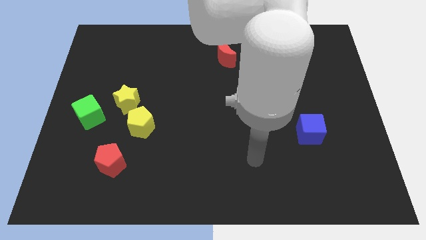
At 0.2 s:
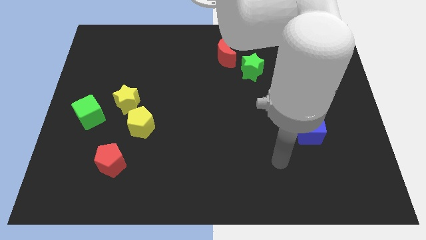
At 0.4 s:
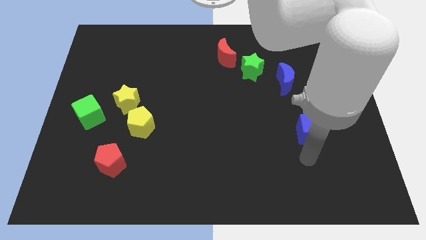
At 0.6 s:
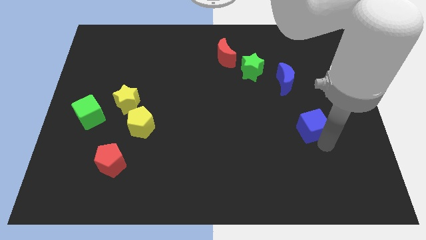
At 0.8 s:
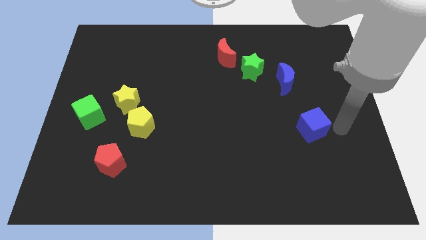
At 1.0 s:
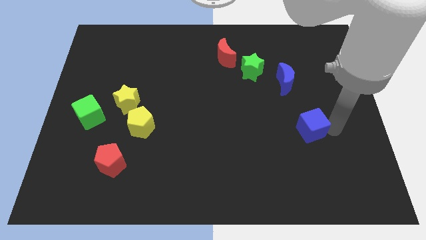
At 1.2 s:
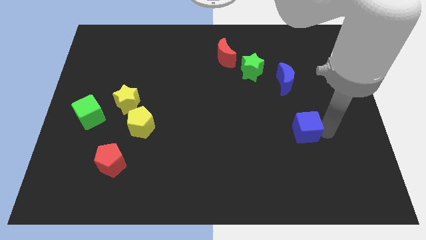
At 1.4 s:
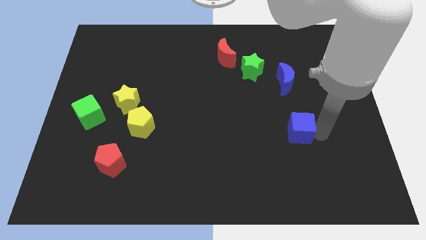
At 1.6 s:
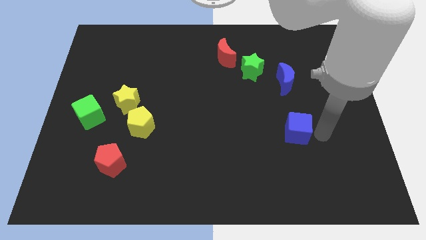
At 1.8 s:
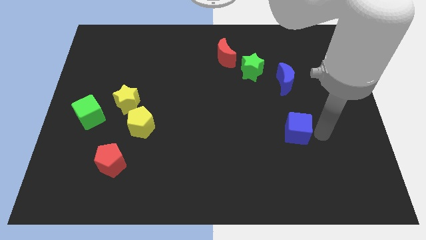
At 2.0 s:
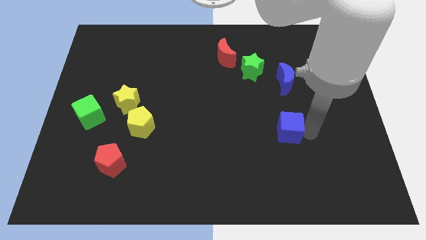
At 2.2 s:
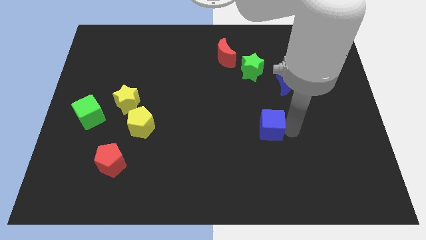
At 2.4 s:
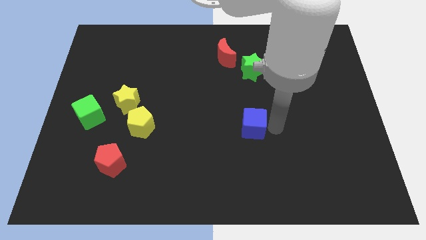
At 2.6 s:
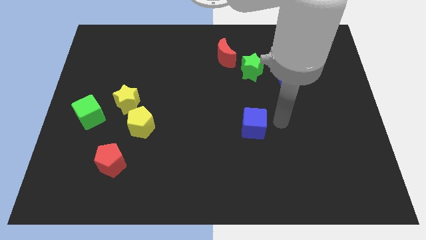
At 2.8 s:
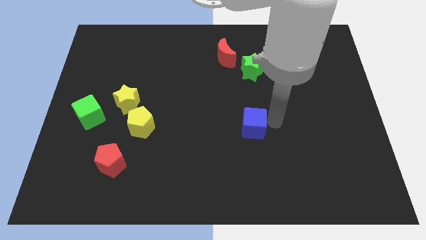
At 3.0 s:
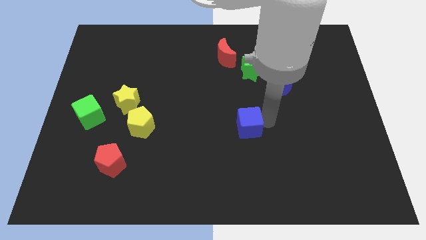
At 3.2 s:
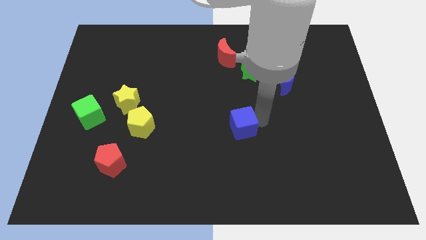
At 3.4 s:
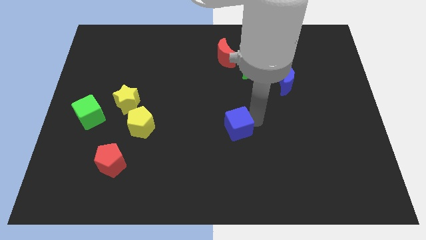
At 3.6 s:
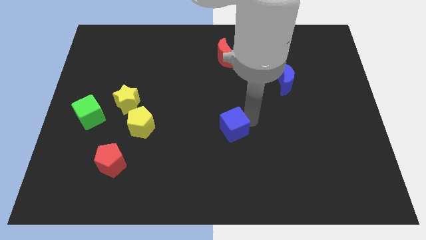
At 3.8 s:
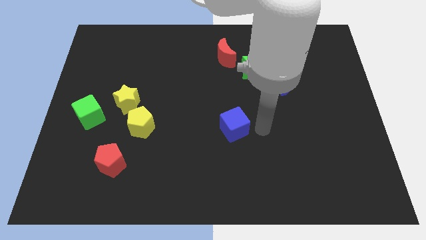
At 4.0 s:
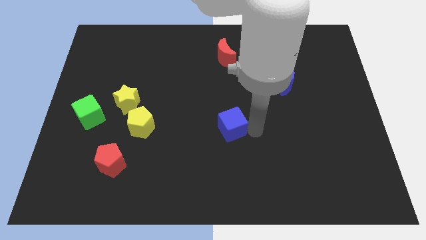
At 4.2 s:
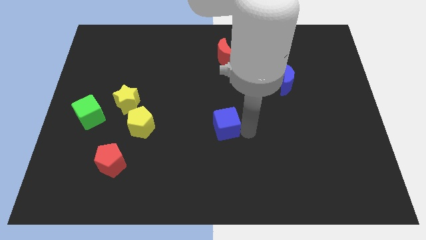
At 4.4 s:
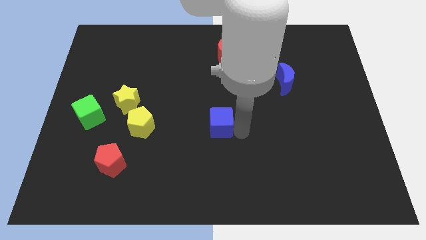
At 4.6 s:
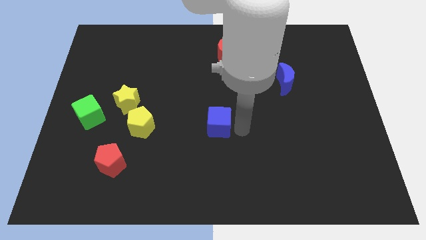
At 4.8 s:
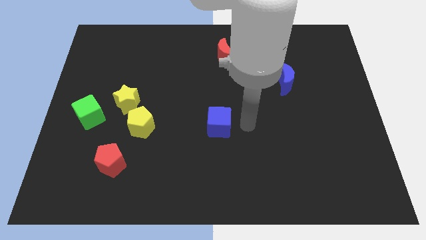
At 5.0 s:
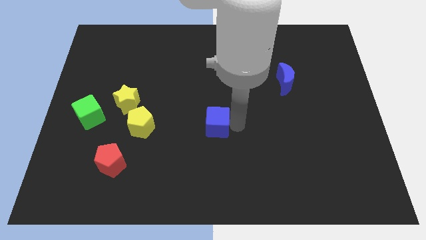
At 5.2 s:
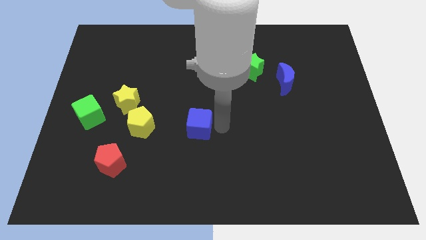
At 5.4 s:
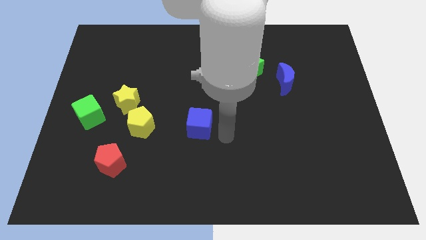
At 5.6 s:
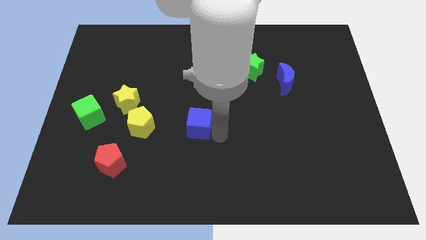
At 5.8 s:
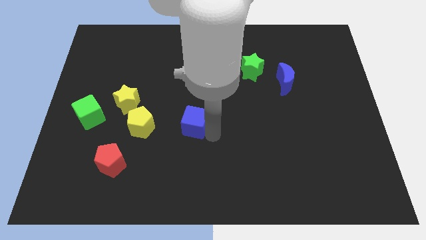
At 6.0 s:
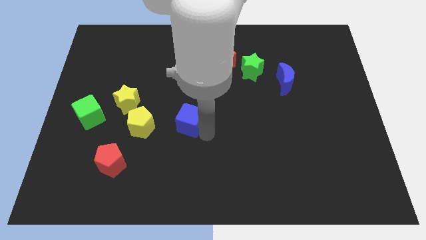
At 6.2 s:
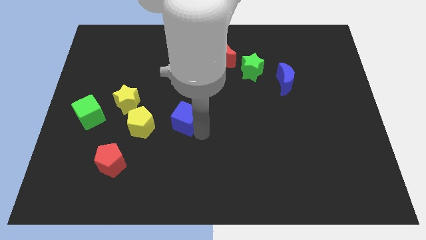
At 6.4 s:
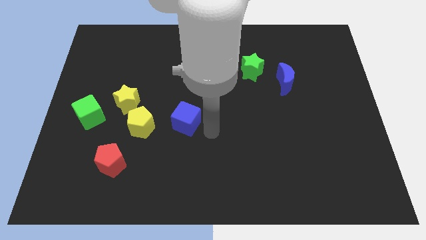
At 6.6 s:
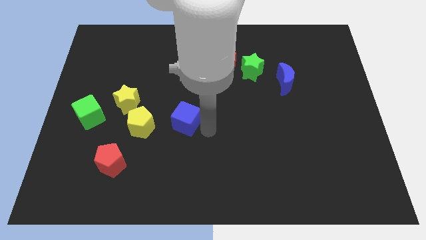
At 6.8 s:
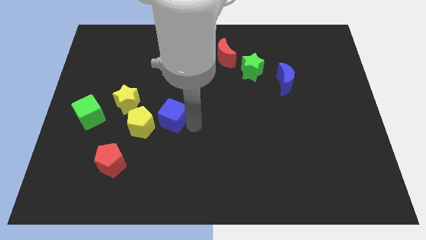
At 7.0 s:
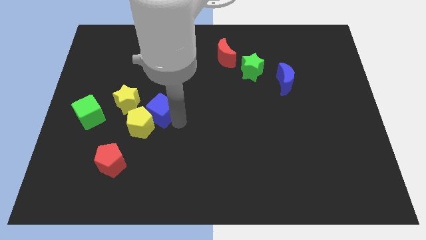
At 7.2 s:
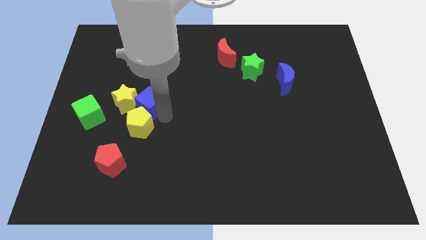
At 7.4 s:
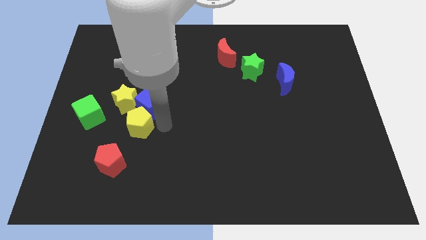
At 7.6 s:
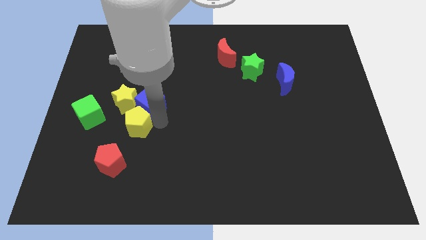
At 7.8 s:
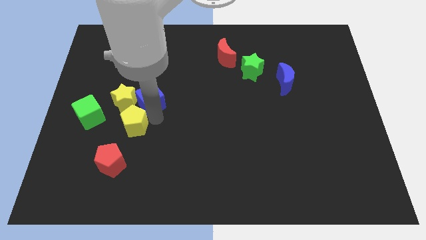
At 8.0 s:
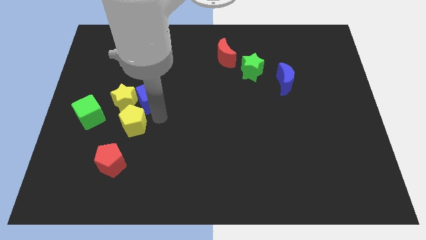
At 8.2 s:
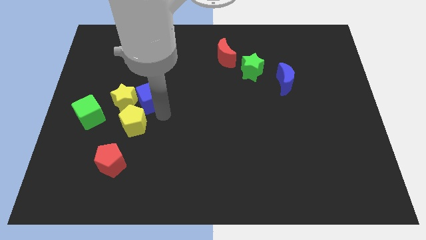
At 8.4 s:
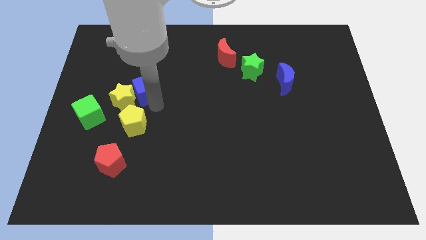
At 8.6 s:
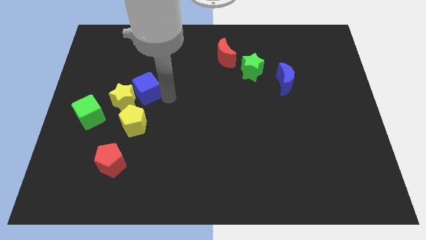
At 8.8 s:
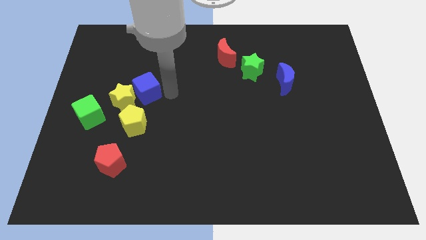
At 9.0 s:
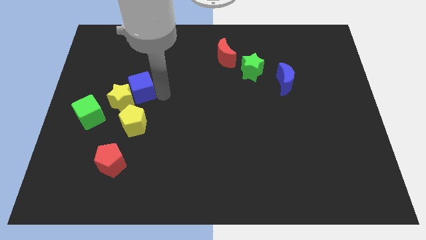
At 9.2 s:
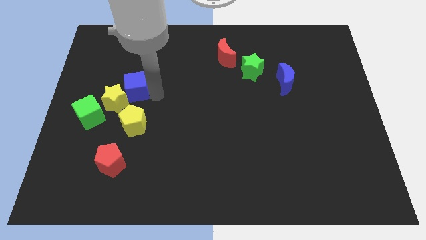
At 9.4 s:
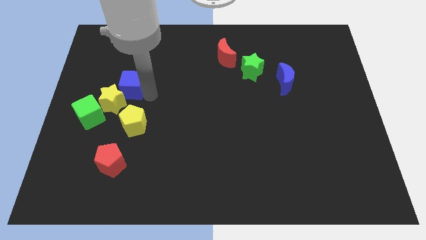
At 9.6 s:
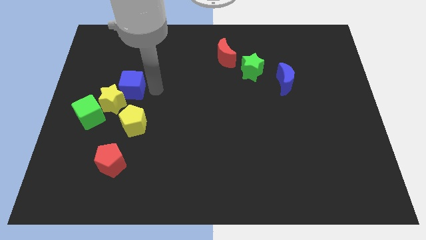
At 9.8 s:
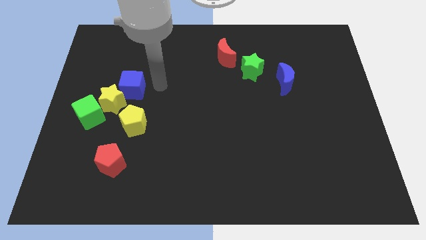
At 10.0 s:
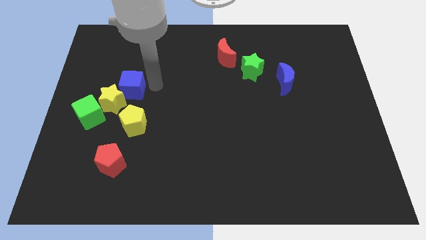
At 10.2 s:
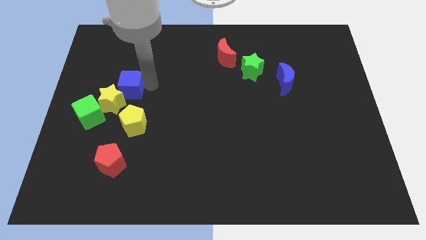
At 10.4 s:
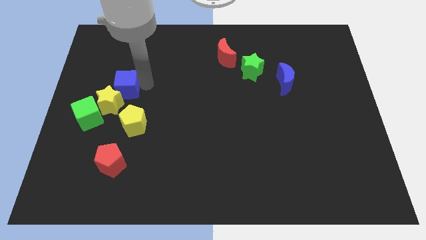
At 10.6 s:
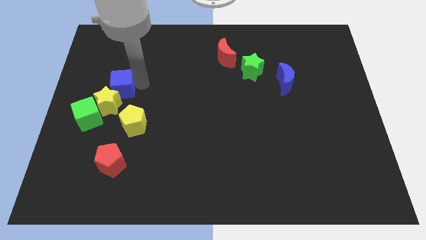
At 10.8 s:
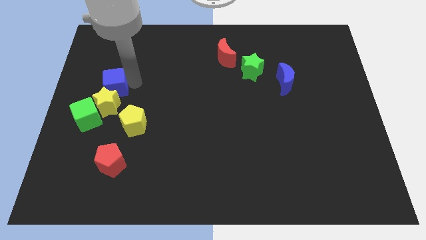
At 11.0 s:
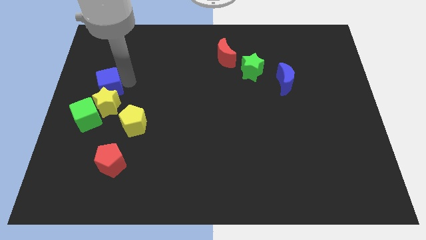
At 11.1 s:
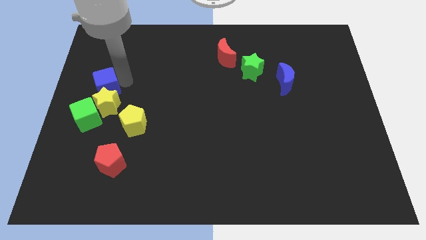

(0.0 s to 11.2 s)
slide the blue cube to the center left

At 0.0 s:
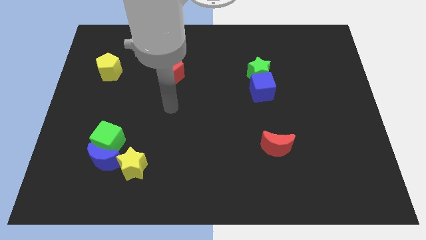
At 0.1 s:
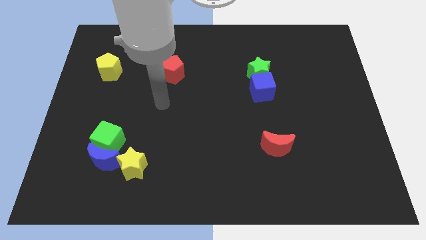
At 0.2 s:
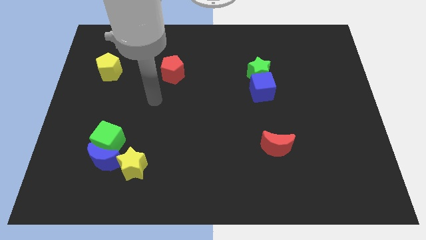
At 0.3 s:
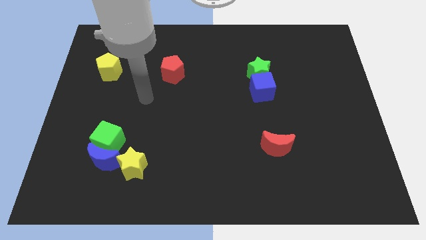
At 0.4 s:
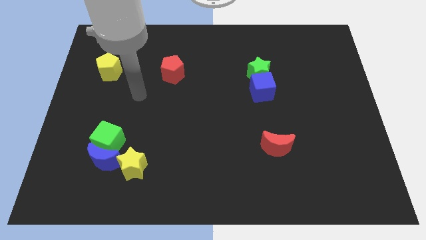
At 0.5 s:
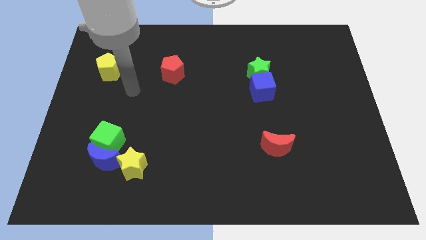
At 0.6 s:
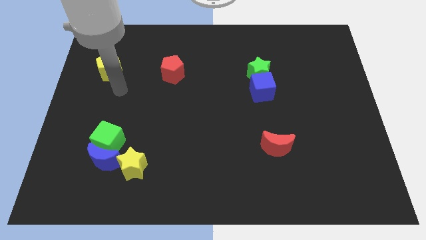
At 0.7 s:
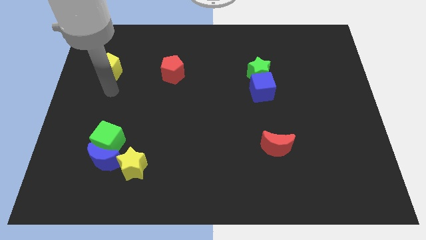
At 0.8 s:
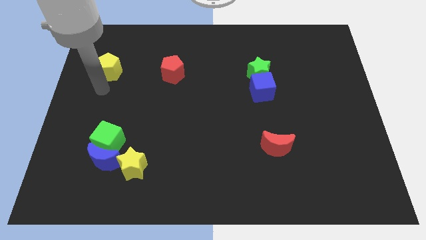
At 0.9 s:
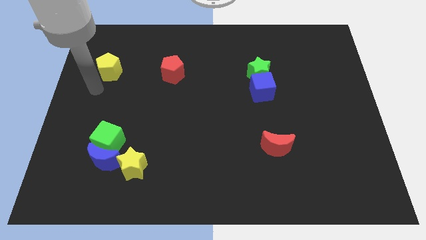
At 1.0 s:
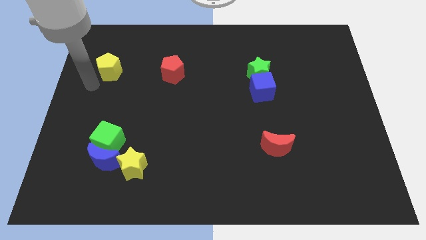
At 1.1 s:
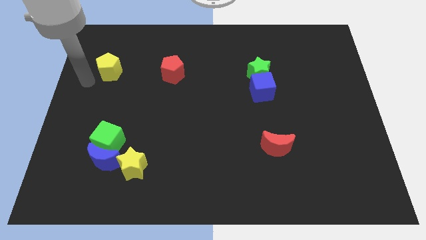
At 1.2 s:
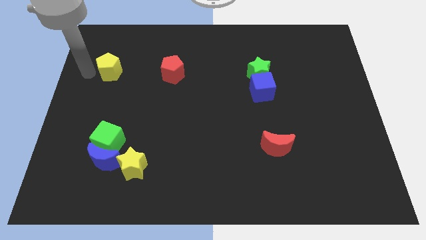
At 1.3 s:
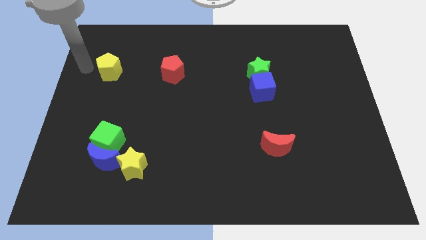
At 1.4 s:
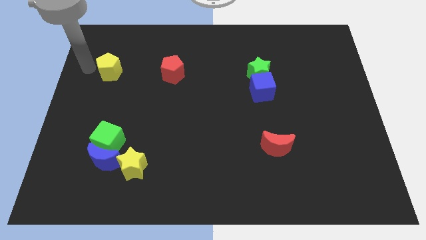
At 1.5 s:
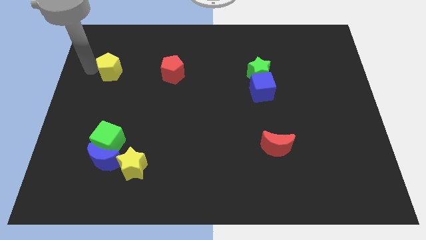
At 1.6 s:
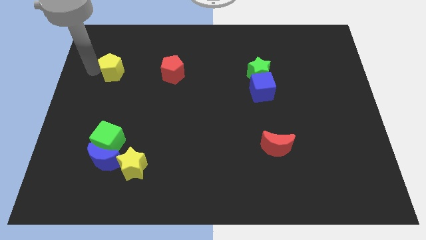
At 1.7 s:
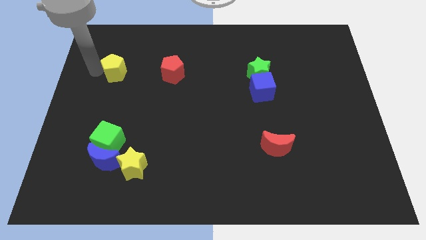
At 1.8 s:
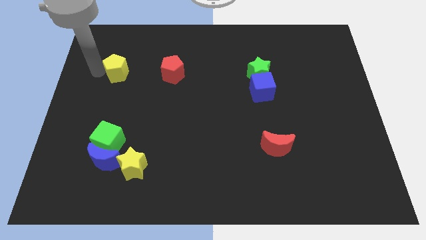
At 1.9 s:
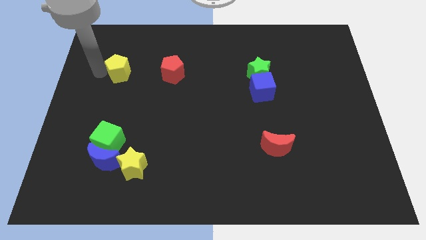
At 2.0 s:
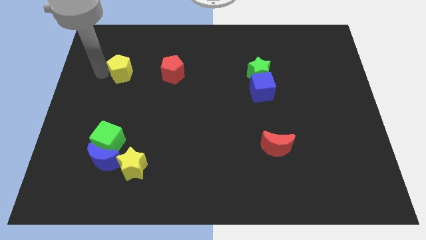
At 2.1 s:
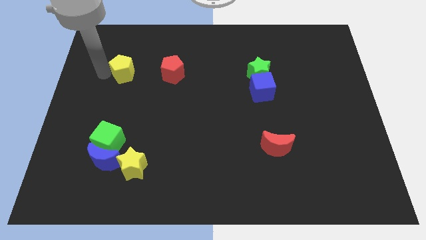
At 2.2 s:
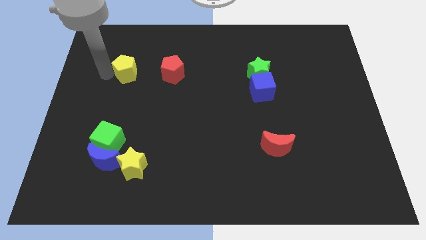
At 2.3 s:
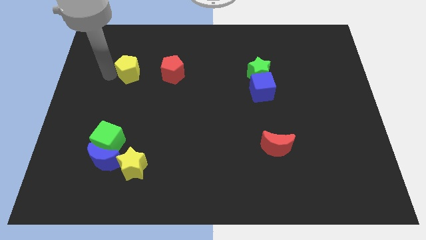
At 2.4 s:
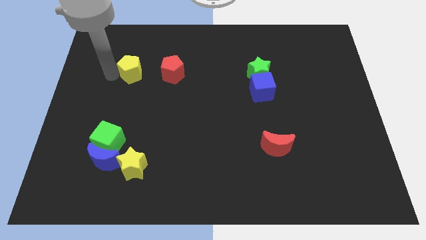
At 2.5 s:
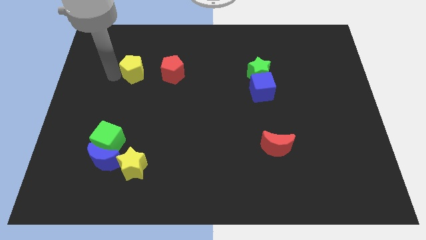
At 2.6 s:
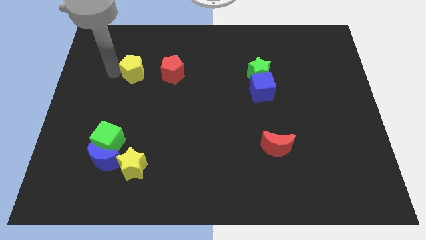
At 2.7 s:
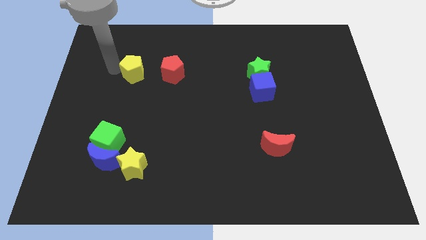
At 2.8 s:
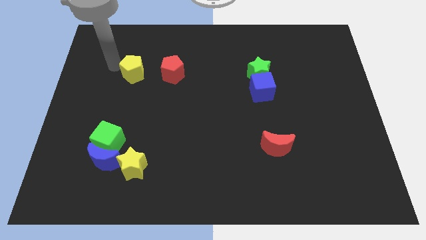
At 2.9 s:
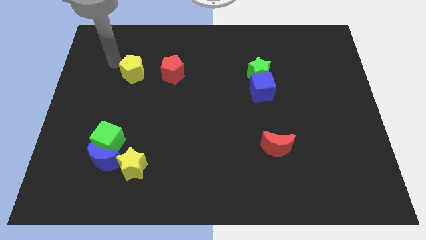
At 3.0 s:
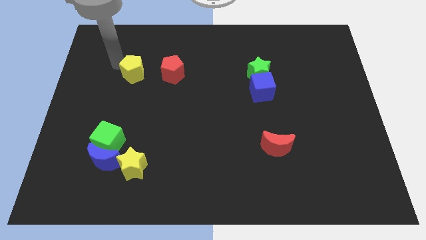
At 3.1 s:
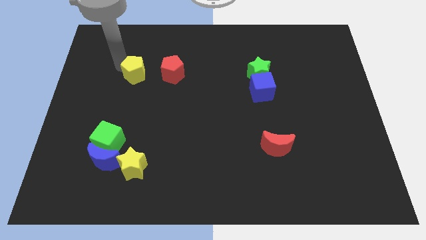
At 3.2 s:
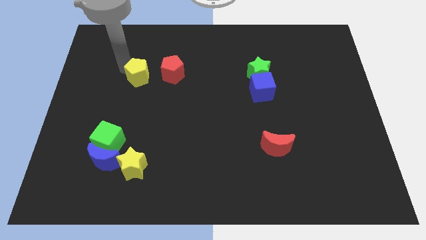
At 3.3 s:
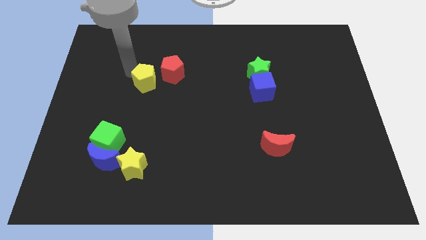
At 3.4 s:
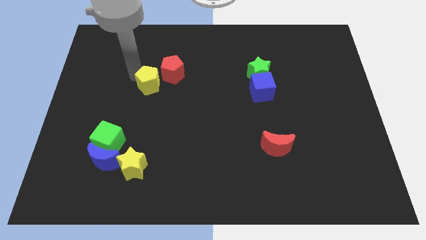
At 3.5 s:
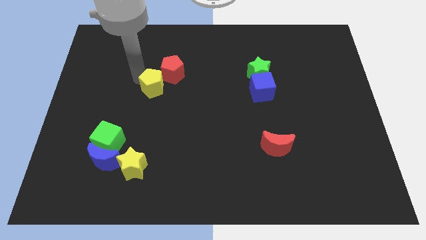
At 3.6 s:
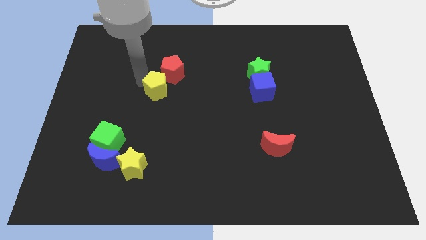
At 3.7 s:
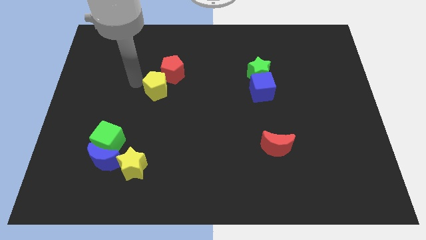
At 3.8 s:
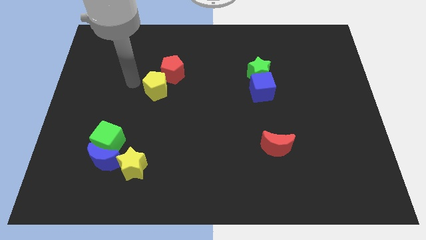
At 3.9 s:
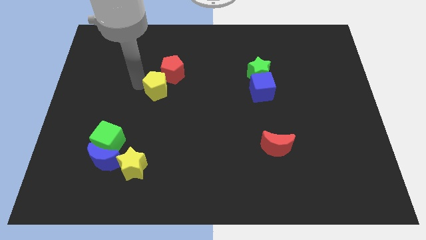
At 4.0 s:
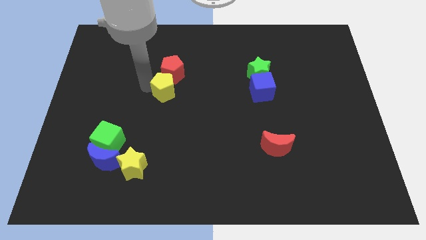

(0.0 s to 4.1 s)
move the yellow pentagon to the center
